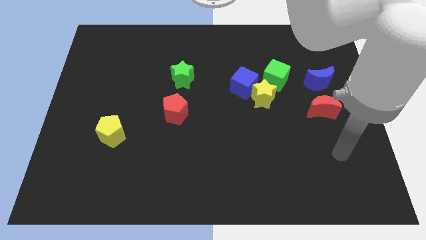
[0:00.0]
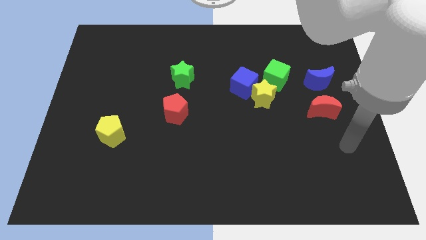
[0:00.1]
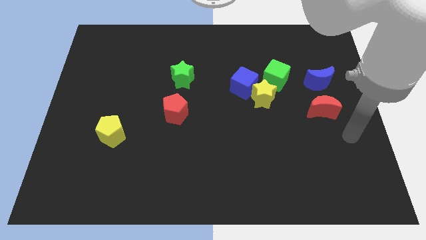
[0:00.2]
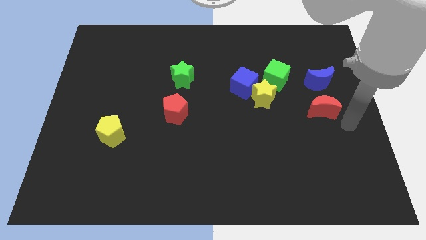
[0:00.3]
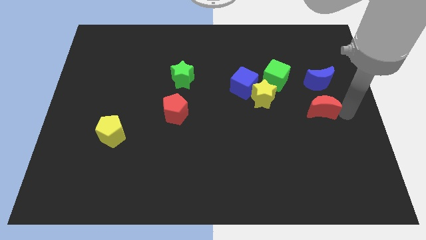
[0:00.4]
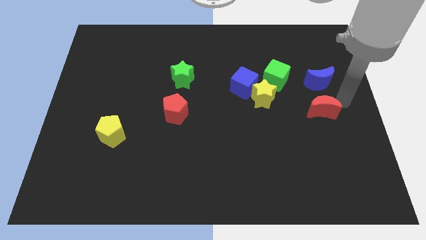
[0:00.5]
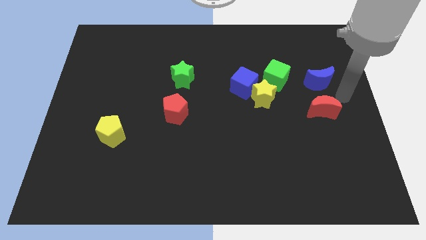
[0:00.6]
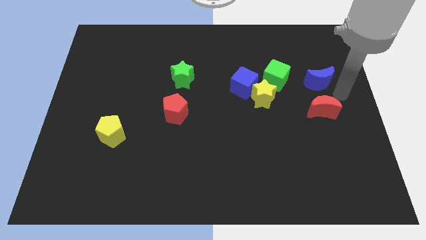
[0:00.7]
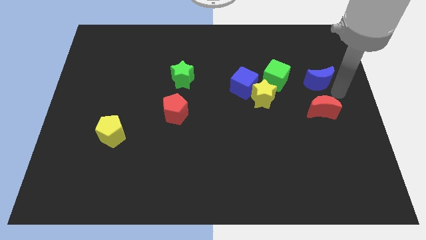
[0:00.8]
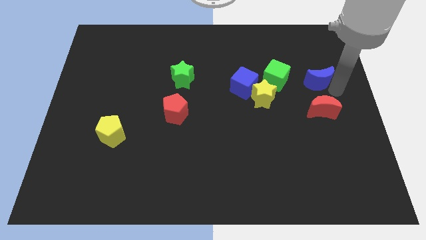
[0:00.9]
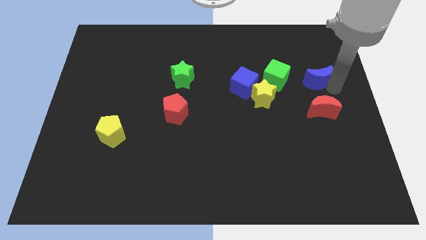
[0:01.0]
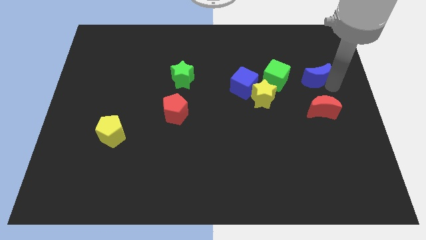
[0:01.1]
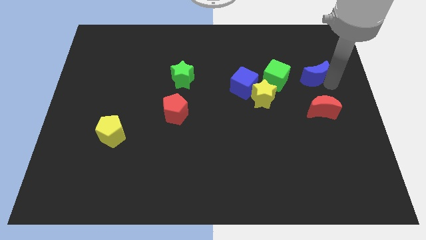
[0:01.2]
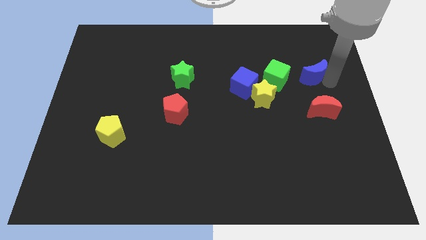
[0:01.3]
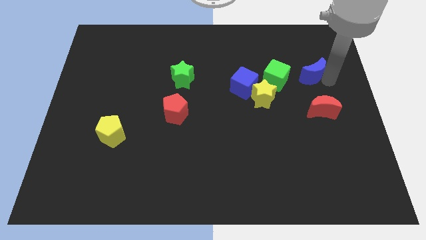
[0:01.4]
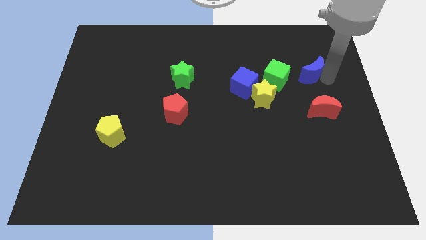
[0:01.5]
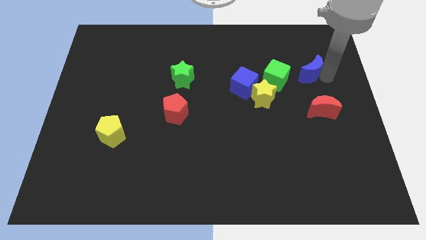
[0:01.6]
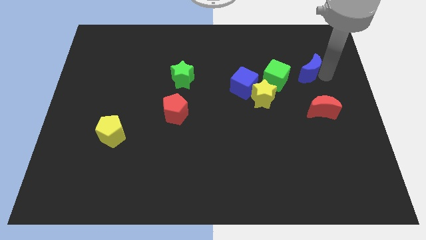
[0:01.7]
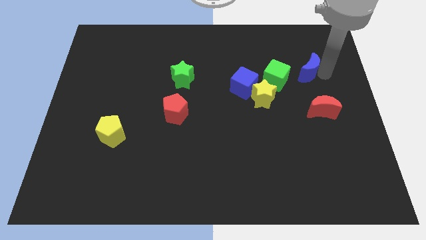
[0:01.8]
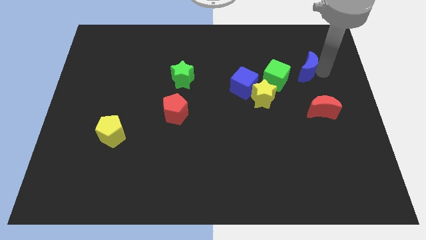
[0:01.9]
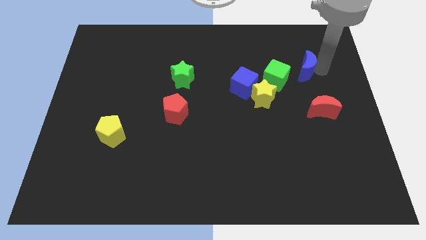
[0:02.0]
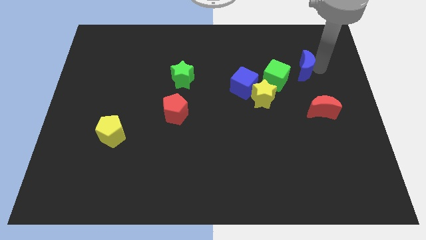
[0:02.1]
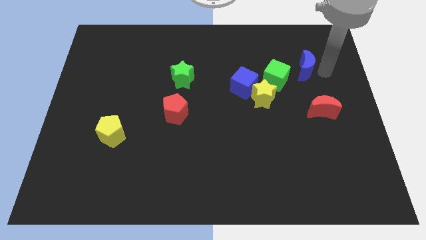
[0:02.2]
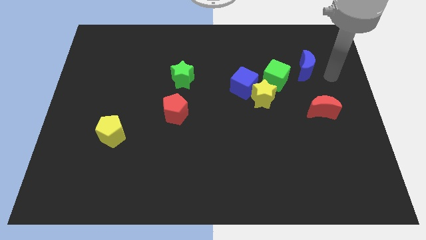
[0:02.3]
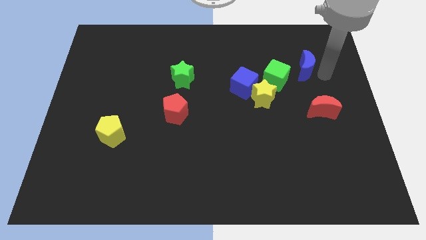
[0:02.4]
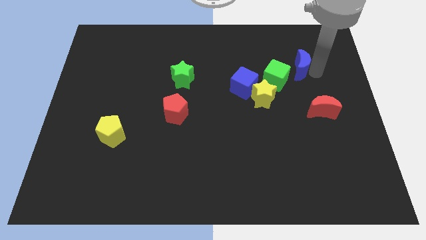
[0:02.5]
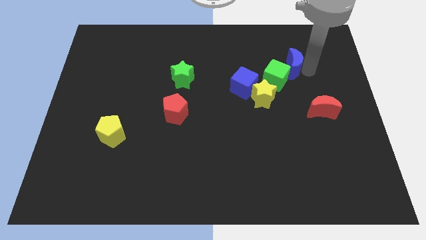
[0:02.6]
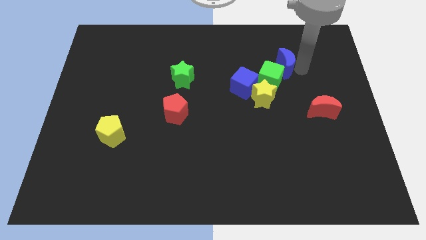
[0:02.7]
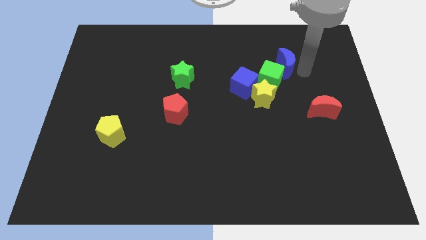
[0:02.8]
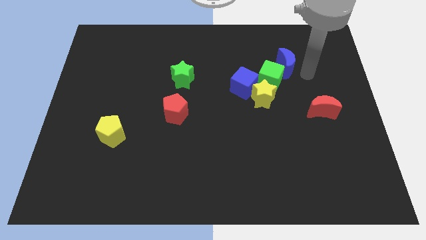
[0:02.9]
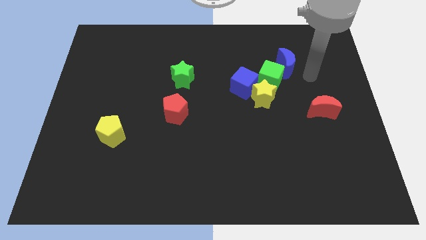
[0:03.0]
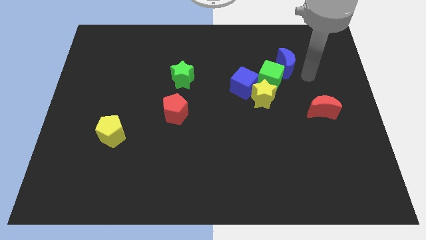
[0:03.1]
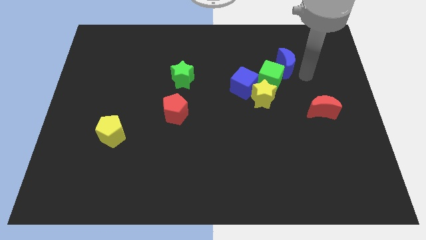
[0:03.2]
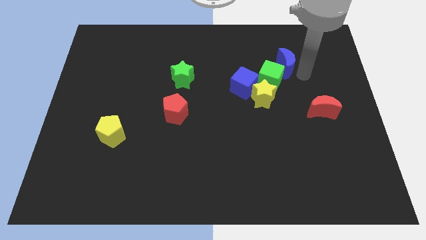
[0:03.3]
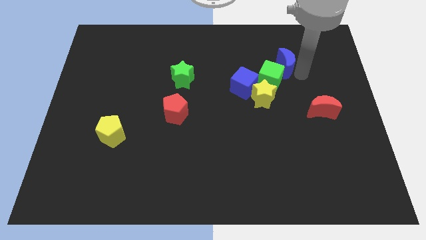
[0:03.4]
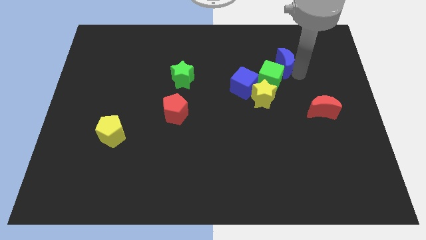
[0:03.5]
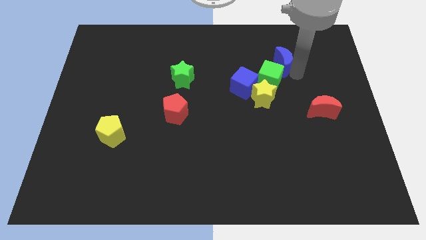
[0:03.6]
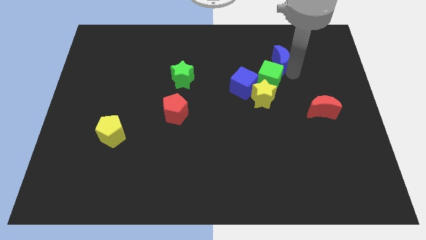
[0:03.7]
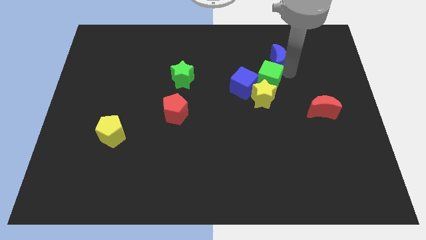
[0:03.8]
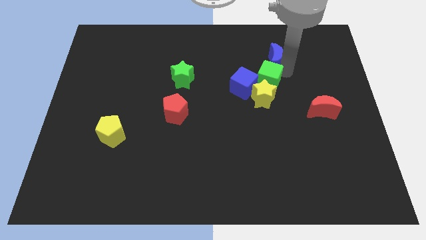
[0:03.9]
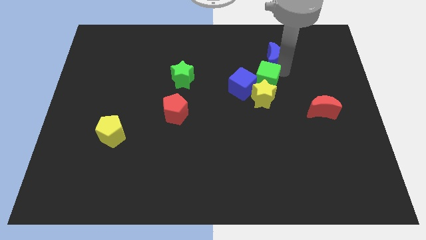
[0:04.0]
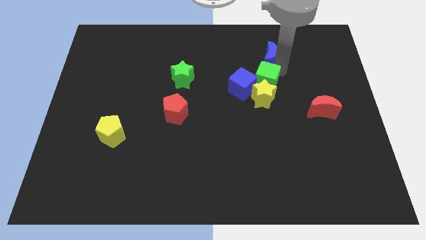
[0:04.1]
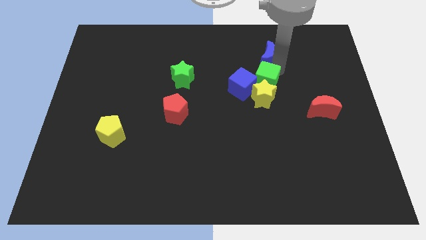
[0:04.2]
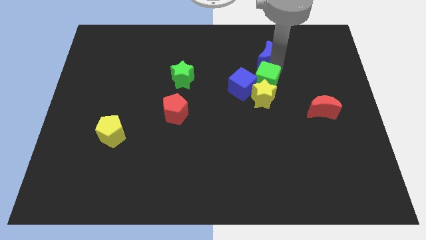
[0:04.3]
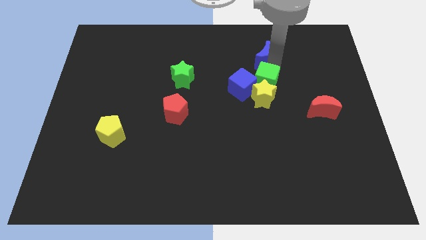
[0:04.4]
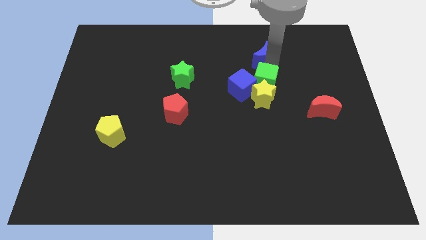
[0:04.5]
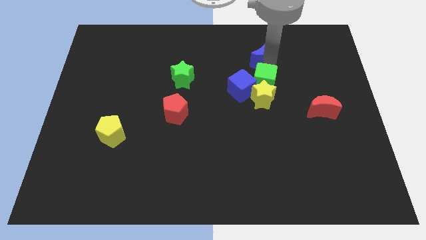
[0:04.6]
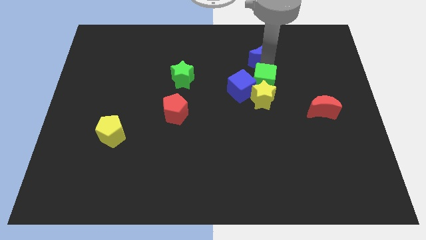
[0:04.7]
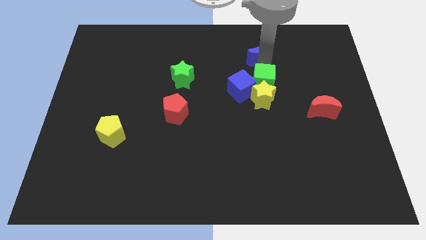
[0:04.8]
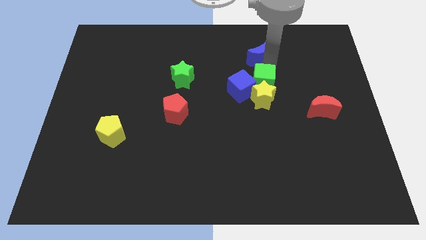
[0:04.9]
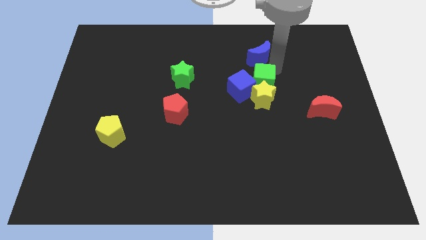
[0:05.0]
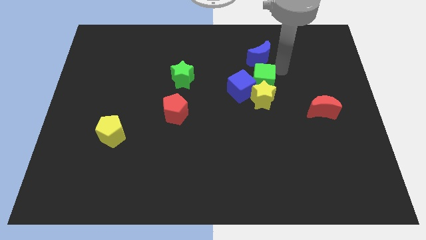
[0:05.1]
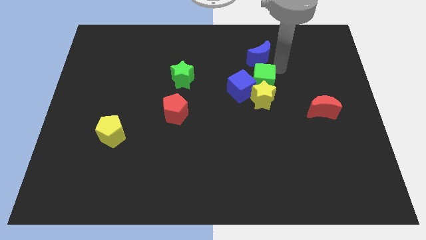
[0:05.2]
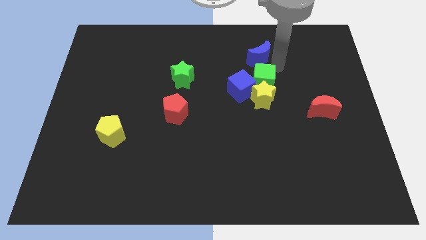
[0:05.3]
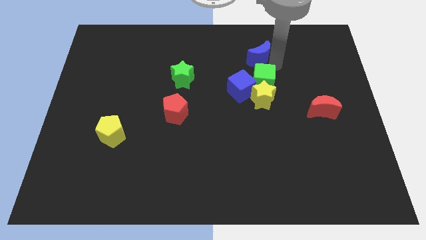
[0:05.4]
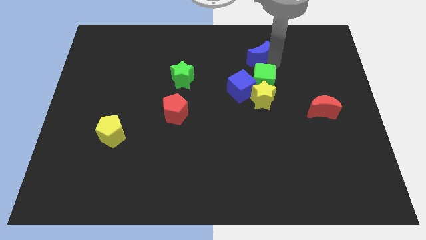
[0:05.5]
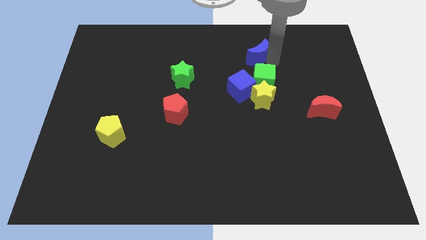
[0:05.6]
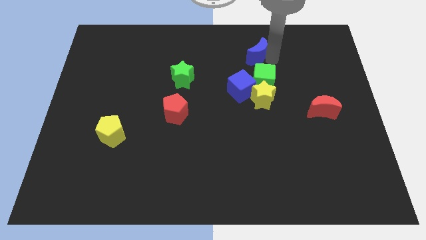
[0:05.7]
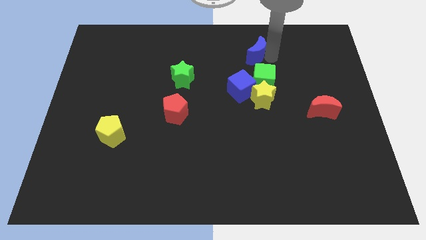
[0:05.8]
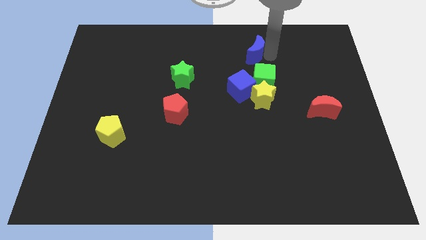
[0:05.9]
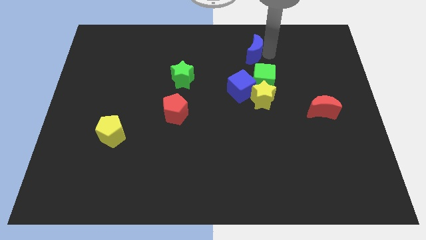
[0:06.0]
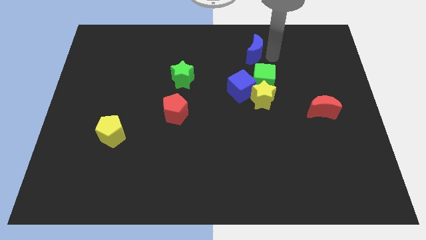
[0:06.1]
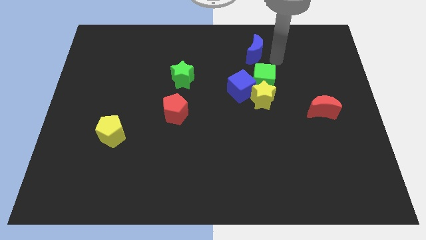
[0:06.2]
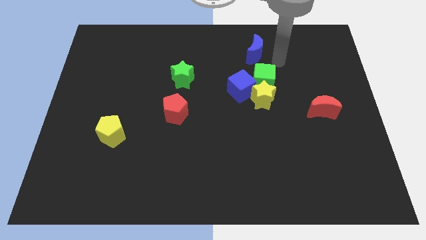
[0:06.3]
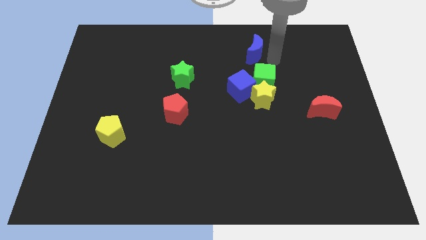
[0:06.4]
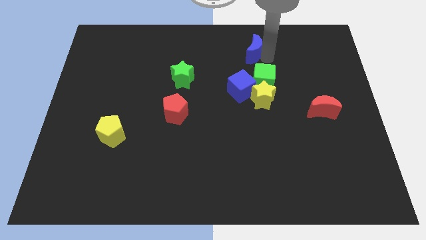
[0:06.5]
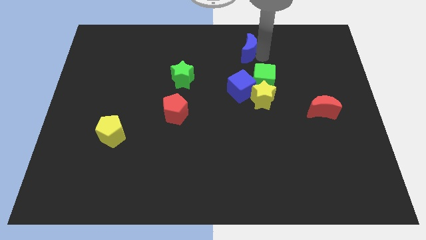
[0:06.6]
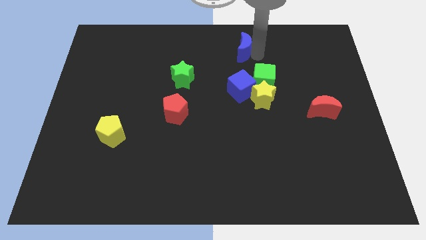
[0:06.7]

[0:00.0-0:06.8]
push the blue moon to the towards your base

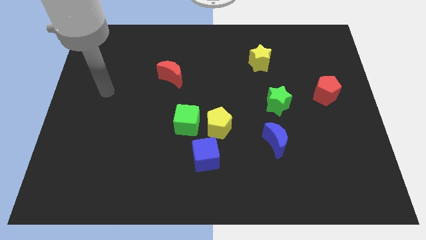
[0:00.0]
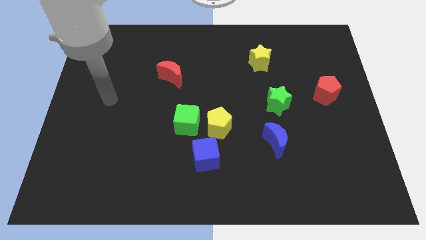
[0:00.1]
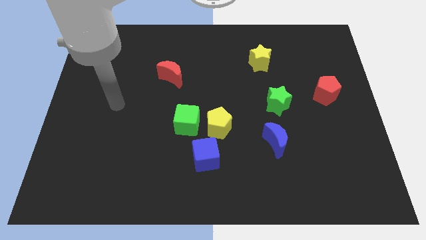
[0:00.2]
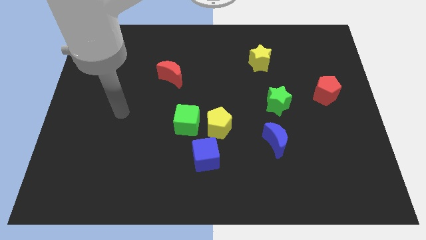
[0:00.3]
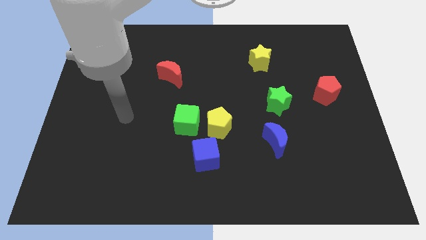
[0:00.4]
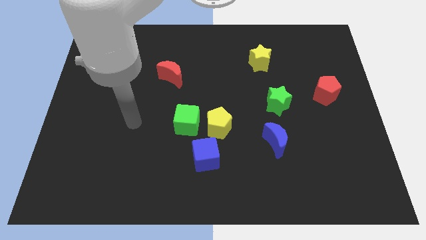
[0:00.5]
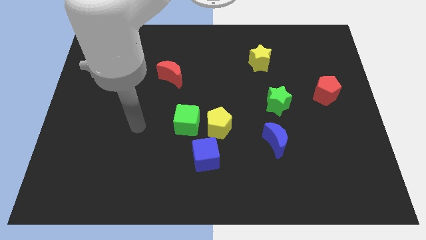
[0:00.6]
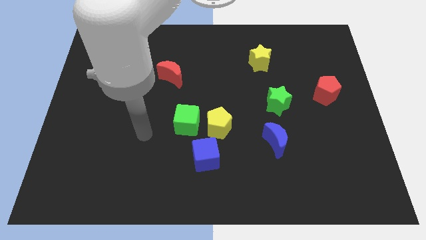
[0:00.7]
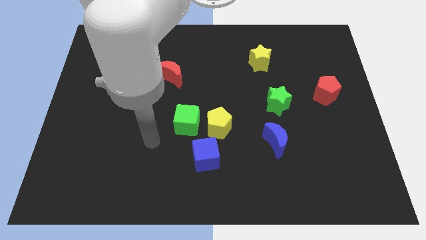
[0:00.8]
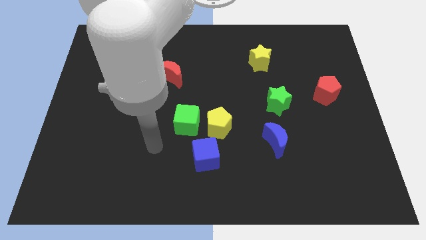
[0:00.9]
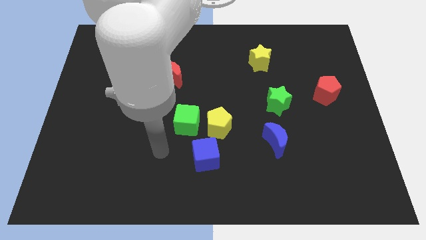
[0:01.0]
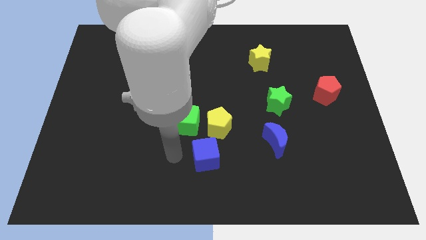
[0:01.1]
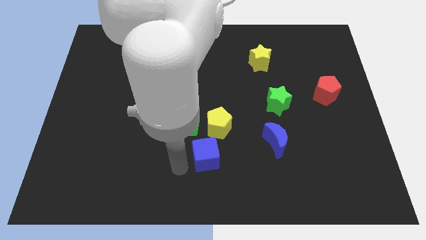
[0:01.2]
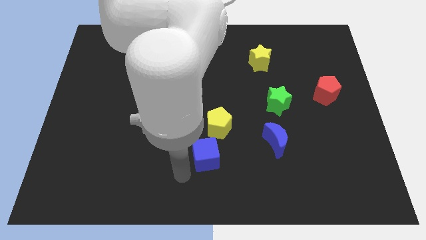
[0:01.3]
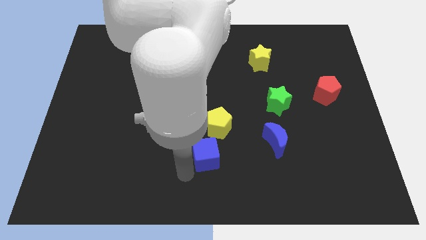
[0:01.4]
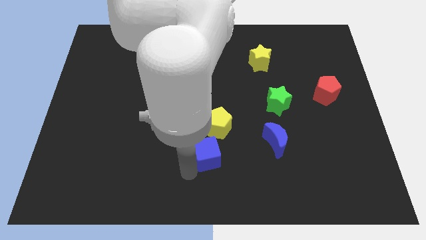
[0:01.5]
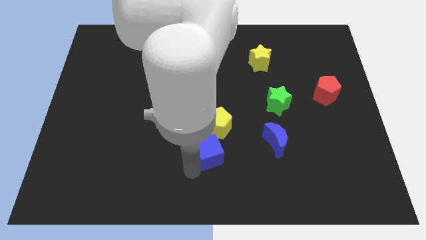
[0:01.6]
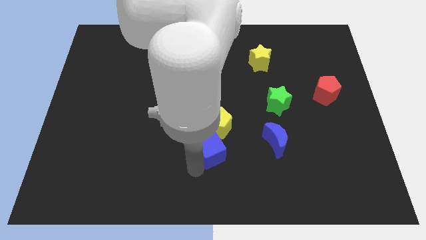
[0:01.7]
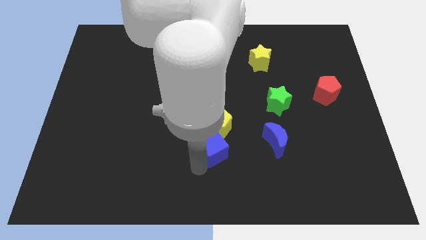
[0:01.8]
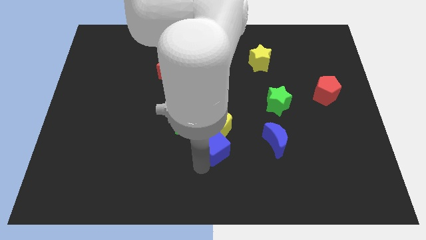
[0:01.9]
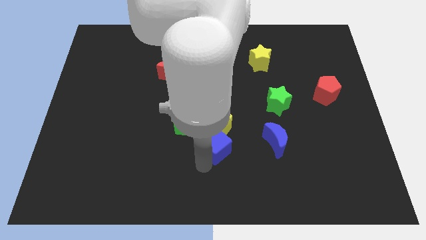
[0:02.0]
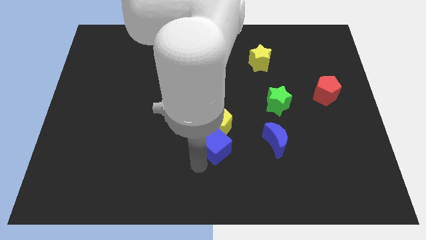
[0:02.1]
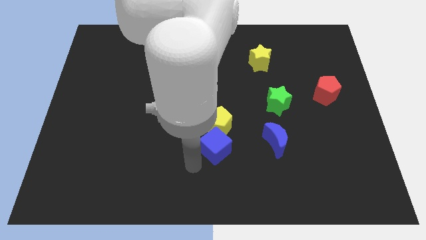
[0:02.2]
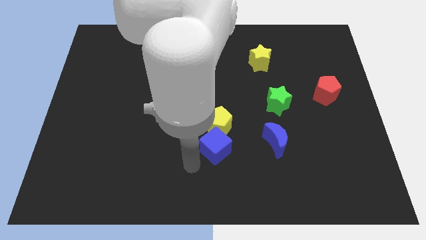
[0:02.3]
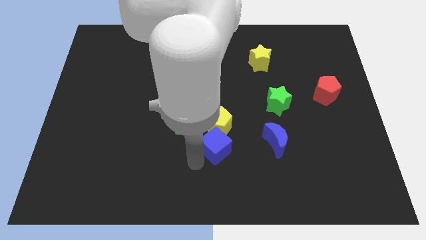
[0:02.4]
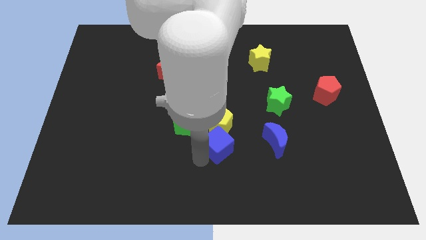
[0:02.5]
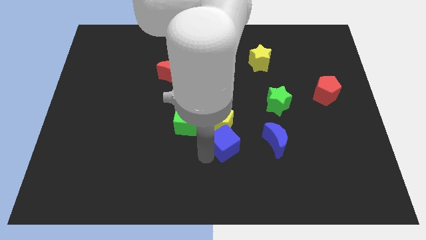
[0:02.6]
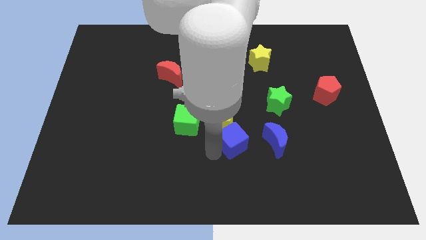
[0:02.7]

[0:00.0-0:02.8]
slide the blue cube to the middle of the board
